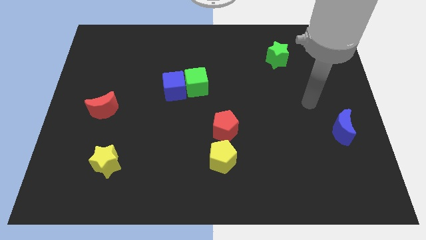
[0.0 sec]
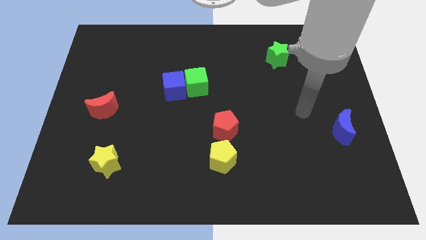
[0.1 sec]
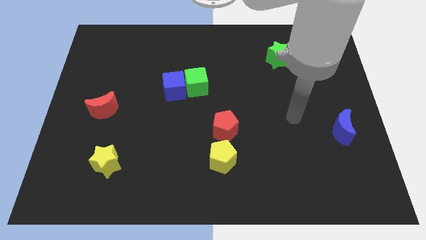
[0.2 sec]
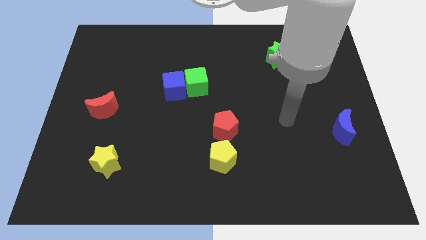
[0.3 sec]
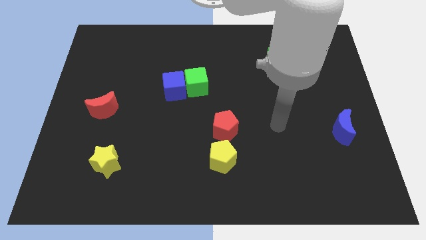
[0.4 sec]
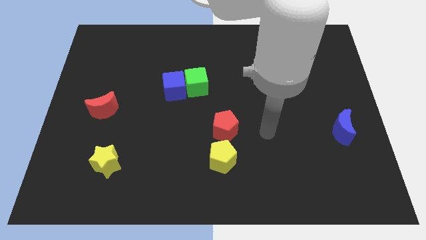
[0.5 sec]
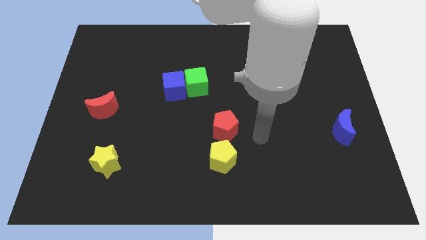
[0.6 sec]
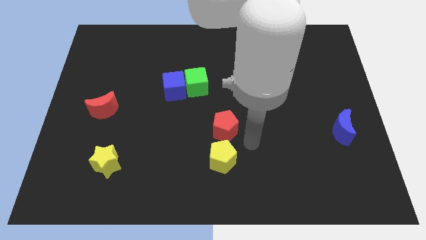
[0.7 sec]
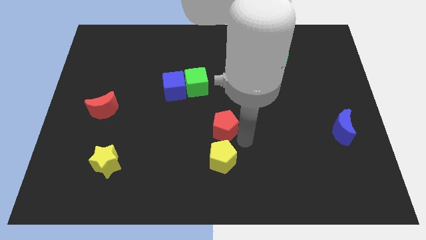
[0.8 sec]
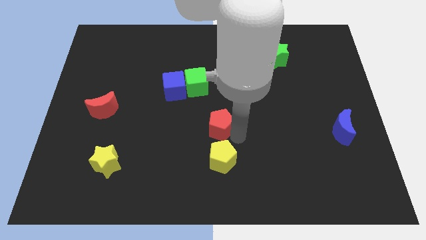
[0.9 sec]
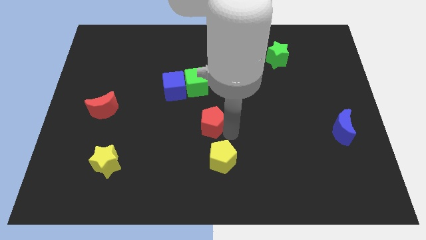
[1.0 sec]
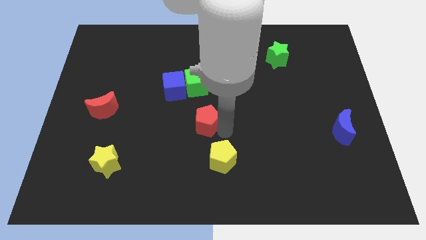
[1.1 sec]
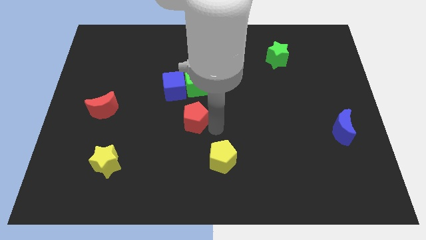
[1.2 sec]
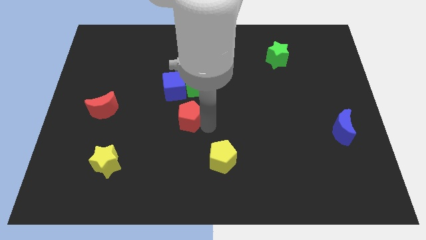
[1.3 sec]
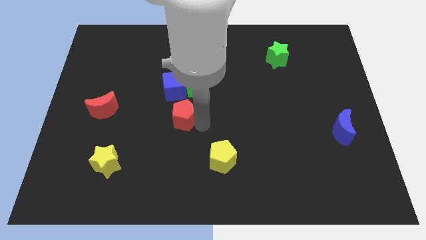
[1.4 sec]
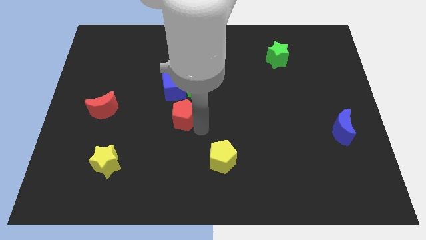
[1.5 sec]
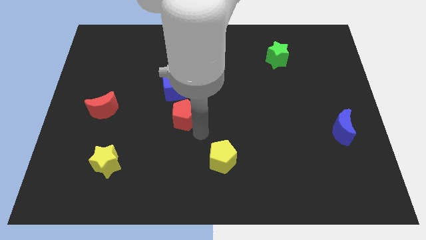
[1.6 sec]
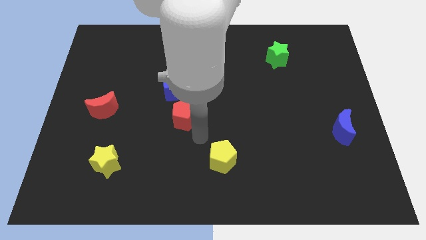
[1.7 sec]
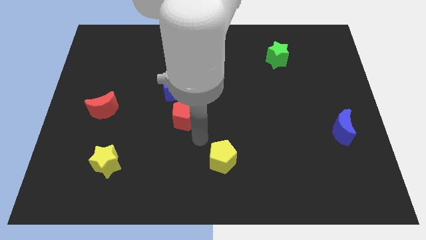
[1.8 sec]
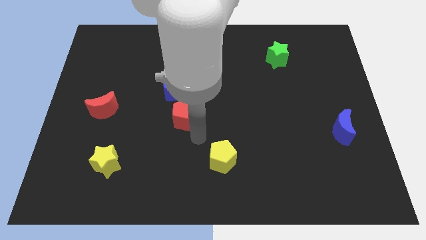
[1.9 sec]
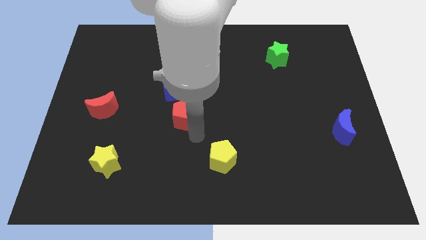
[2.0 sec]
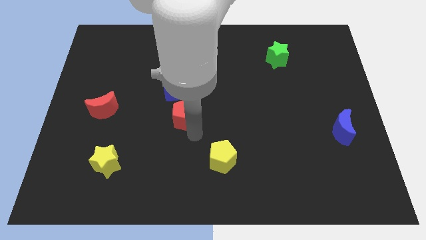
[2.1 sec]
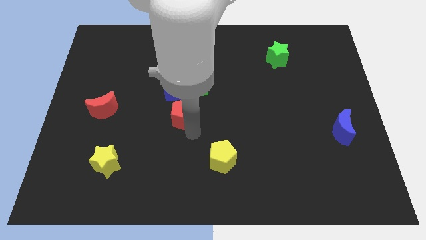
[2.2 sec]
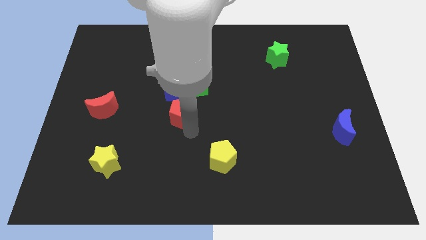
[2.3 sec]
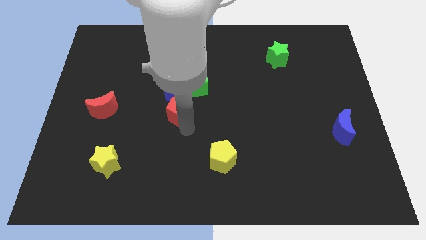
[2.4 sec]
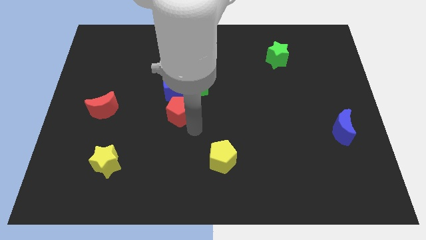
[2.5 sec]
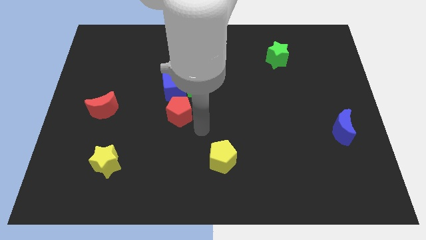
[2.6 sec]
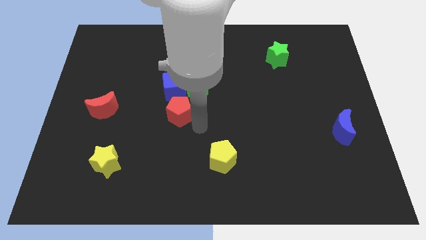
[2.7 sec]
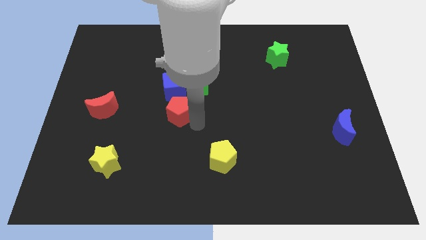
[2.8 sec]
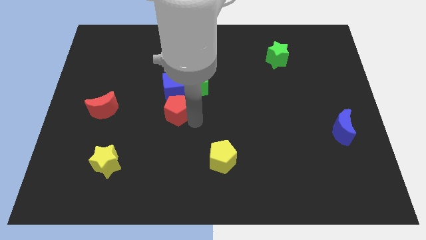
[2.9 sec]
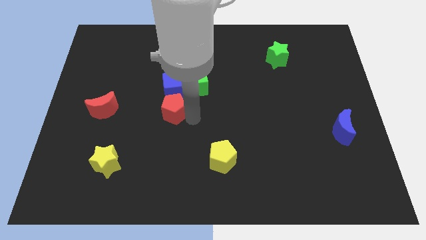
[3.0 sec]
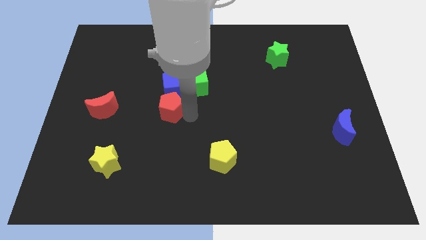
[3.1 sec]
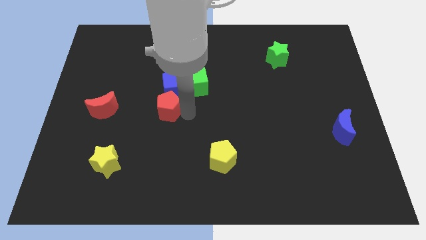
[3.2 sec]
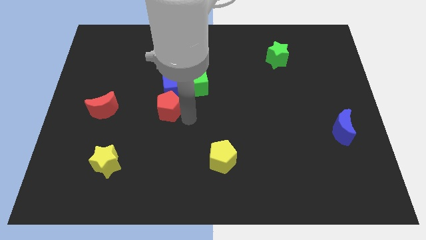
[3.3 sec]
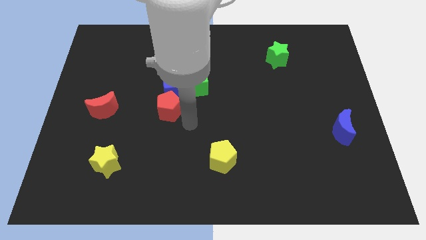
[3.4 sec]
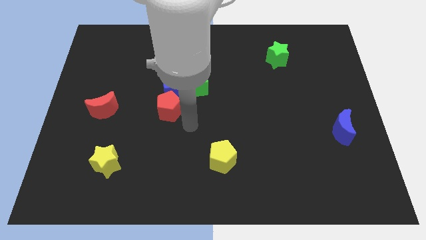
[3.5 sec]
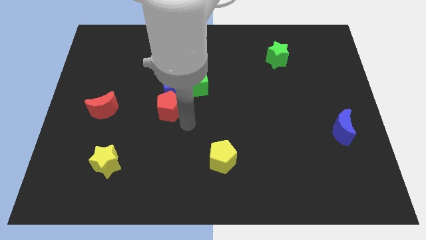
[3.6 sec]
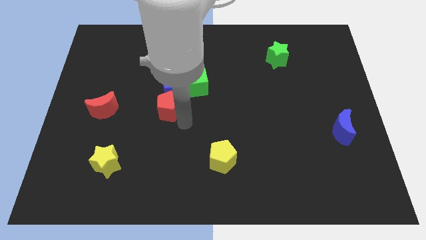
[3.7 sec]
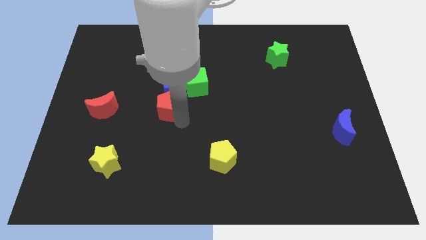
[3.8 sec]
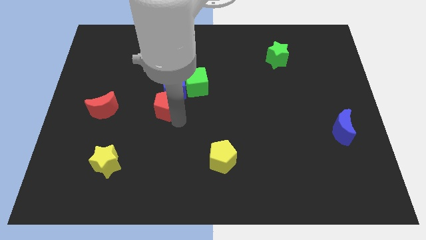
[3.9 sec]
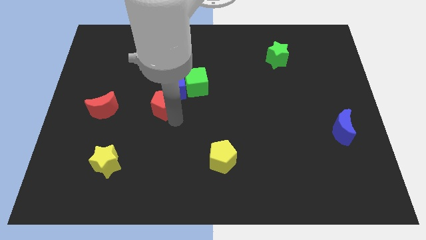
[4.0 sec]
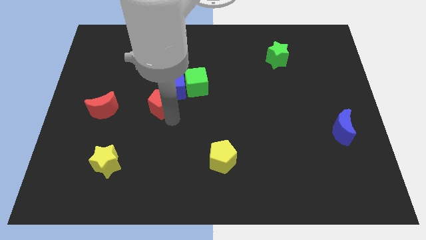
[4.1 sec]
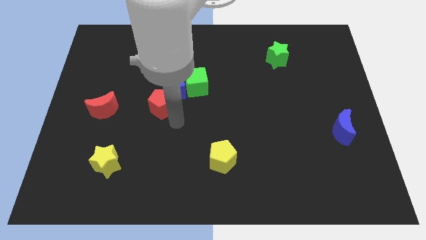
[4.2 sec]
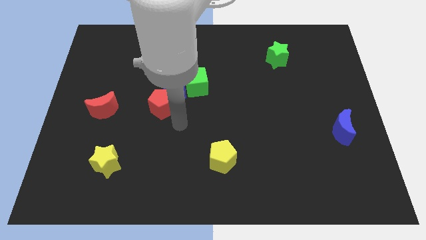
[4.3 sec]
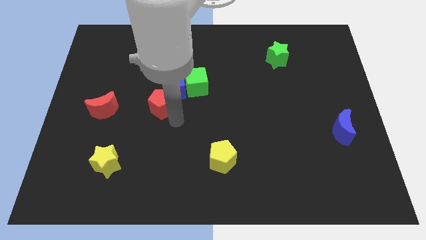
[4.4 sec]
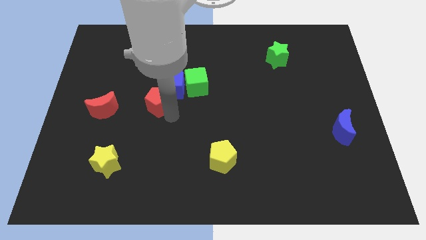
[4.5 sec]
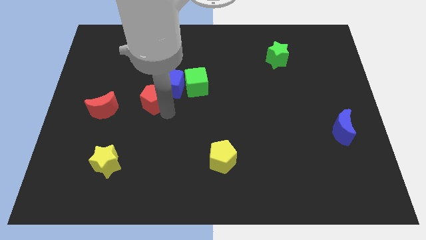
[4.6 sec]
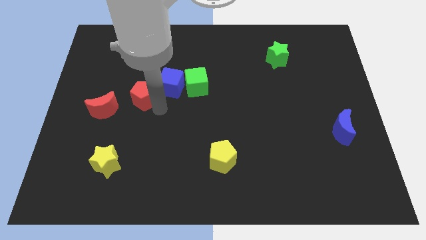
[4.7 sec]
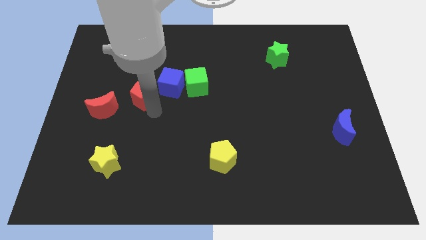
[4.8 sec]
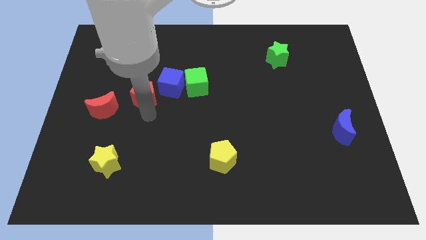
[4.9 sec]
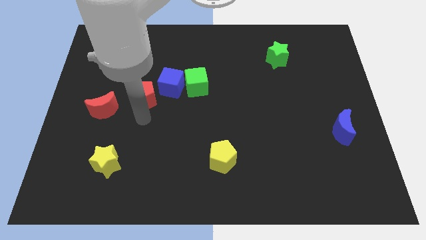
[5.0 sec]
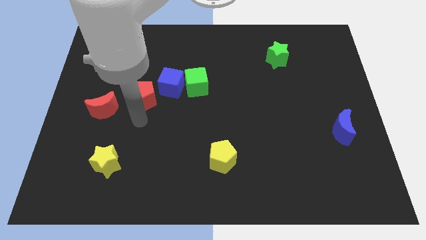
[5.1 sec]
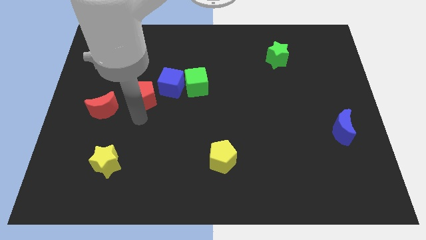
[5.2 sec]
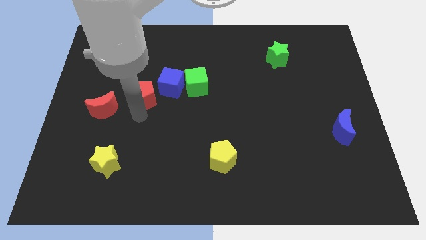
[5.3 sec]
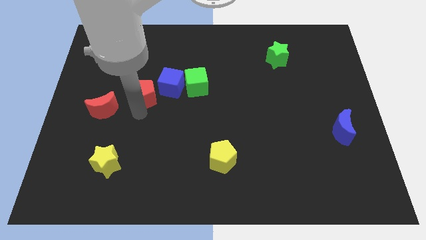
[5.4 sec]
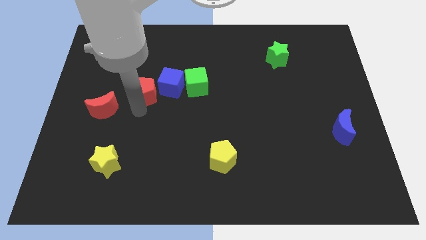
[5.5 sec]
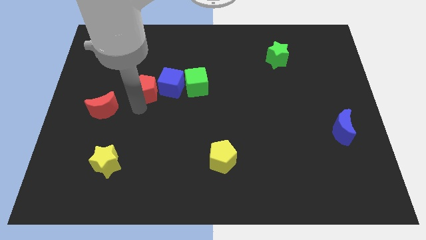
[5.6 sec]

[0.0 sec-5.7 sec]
push the red pentagon upwards and then left

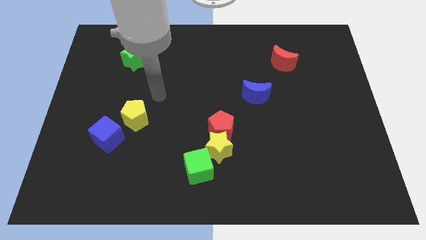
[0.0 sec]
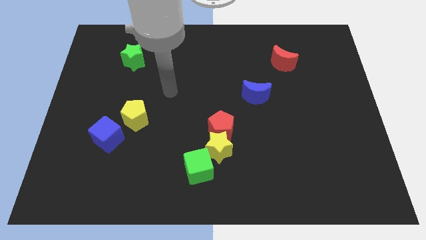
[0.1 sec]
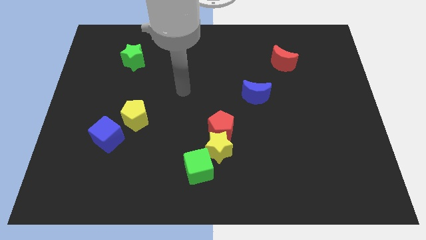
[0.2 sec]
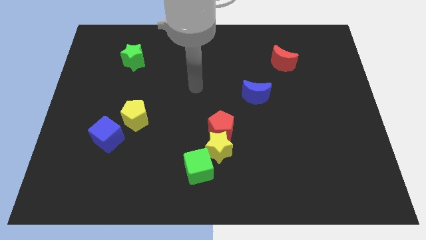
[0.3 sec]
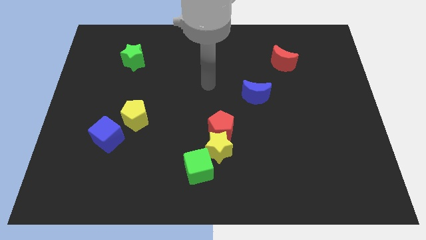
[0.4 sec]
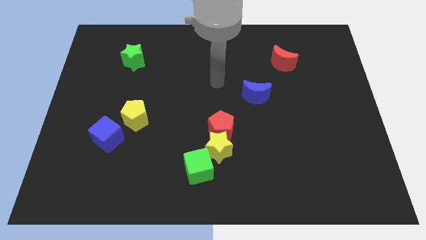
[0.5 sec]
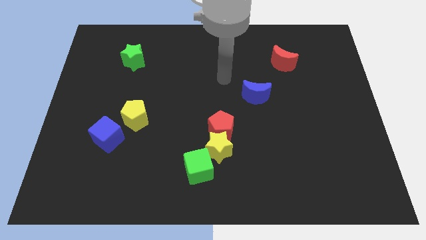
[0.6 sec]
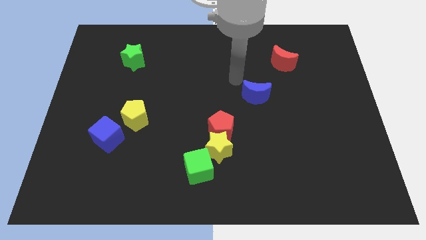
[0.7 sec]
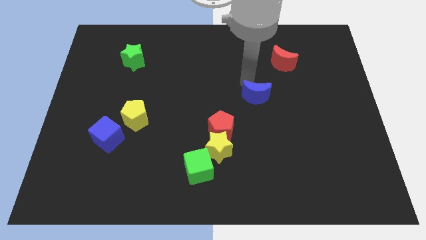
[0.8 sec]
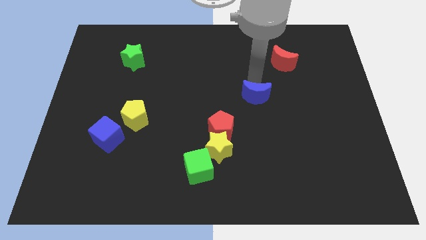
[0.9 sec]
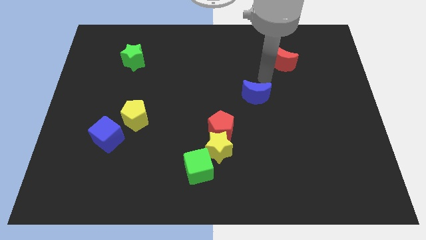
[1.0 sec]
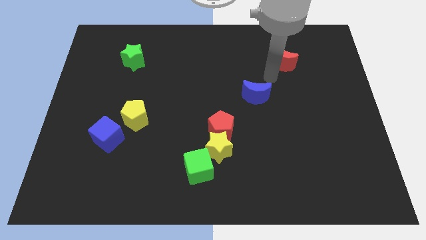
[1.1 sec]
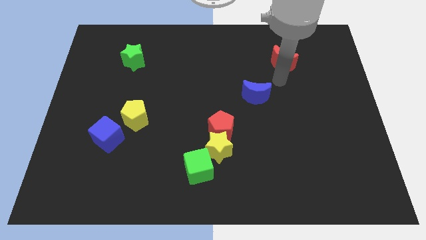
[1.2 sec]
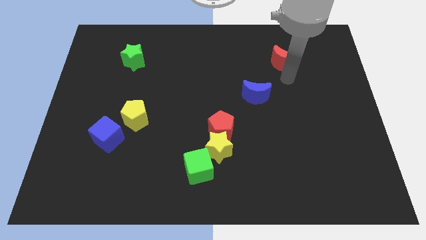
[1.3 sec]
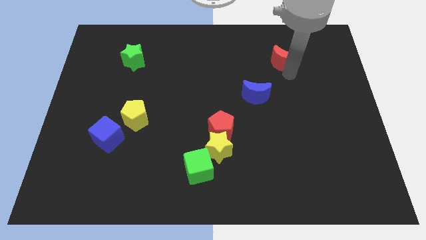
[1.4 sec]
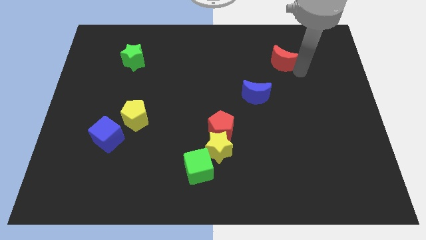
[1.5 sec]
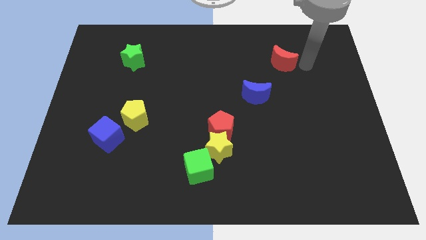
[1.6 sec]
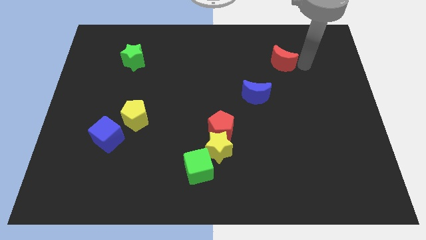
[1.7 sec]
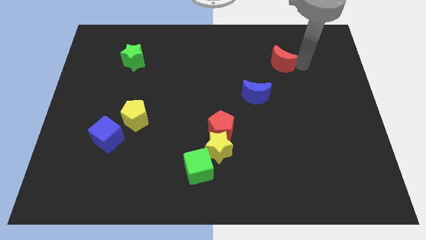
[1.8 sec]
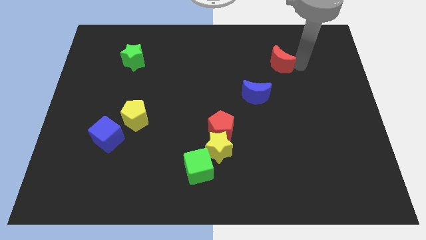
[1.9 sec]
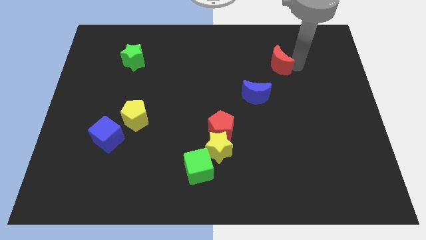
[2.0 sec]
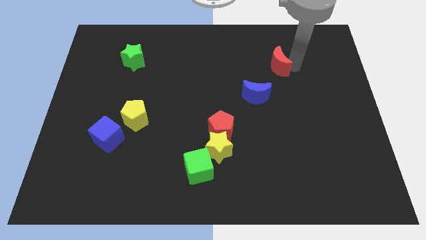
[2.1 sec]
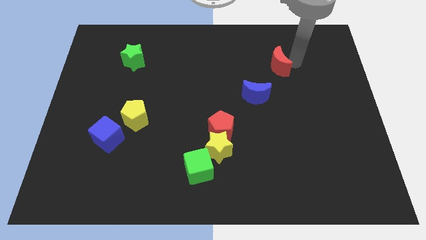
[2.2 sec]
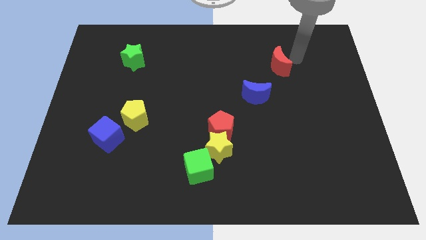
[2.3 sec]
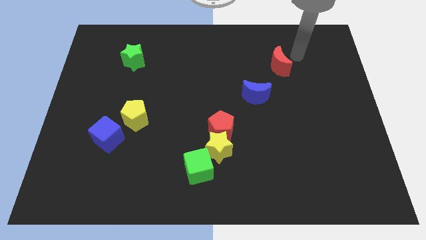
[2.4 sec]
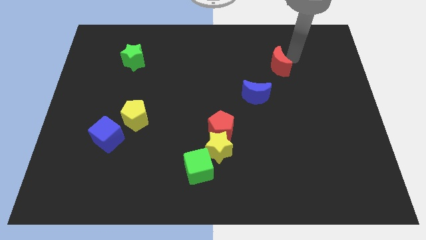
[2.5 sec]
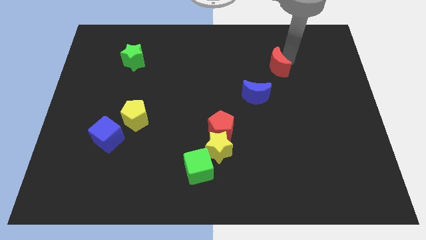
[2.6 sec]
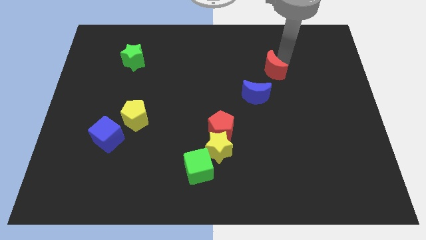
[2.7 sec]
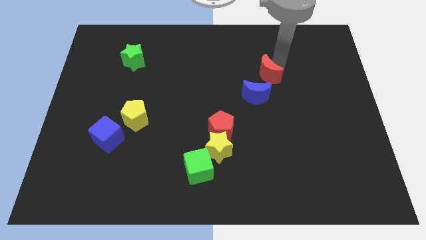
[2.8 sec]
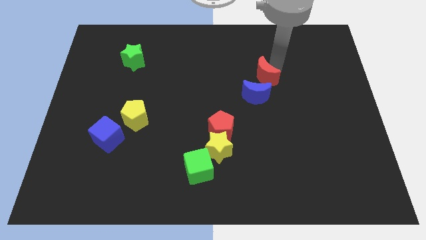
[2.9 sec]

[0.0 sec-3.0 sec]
slide the red moon diagonally down and left a little bit
